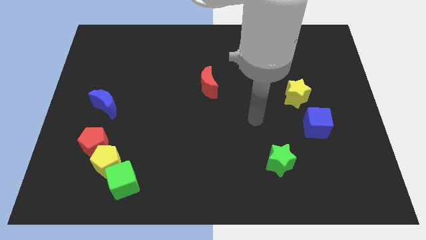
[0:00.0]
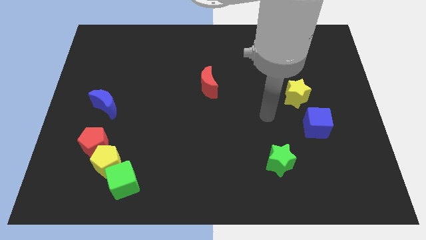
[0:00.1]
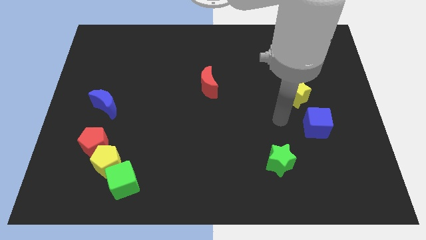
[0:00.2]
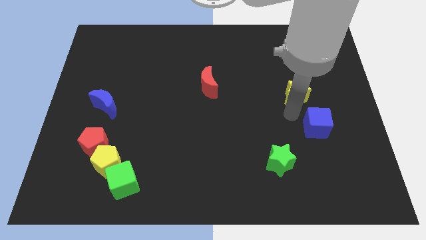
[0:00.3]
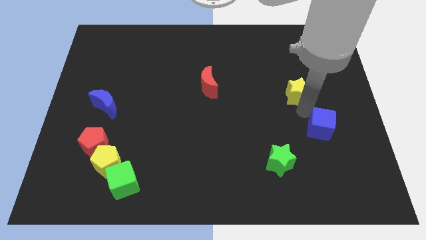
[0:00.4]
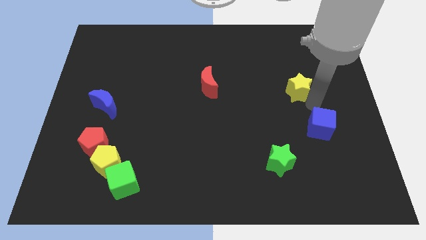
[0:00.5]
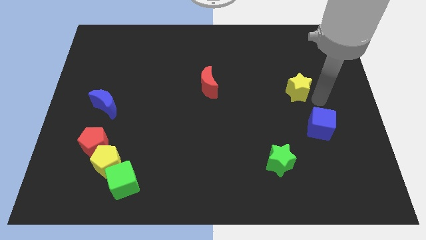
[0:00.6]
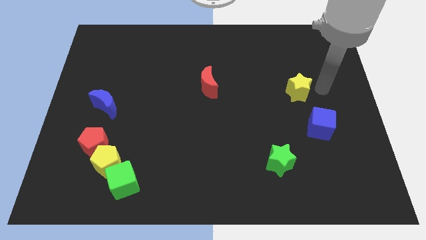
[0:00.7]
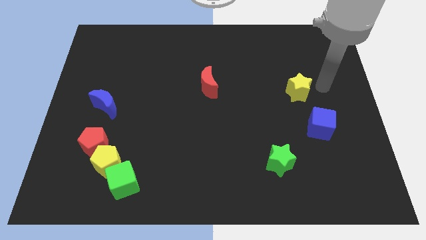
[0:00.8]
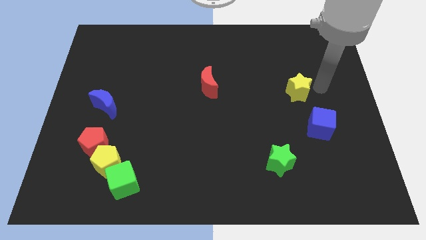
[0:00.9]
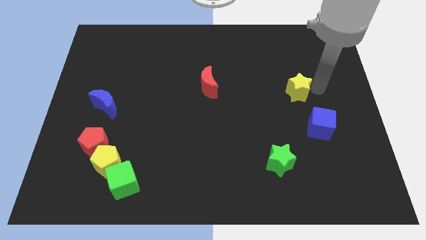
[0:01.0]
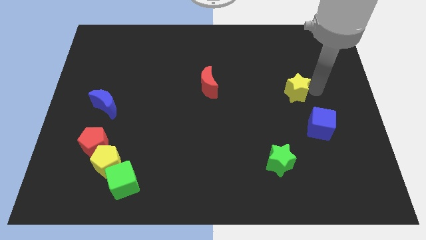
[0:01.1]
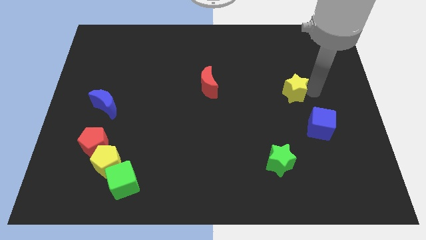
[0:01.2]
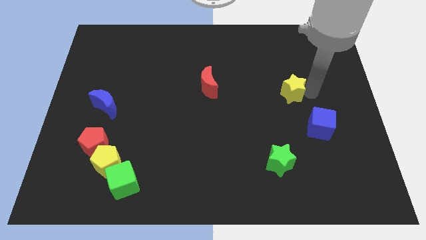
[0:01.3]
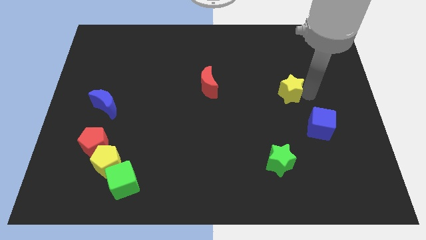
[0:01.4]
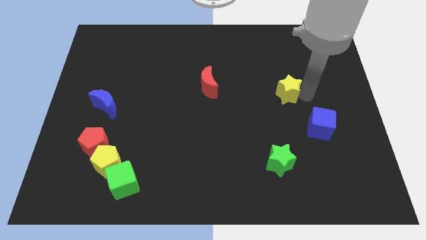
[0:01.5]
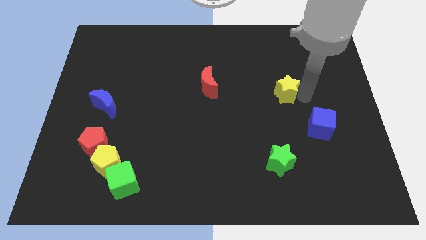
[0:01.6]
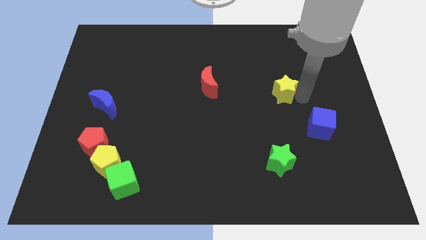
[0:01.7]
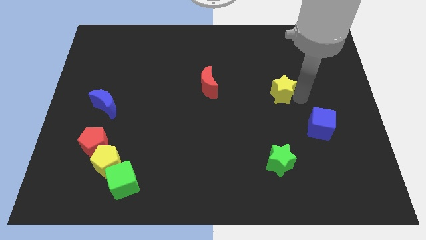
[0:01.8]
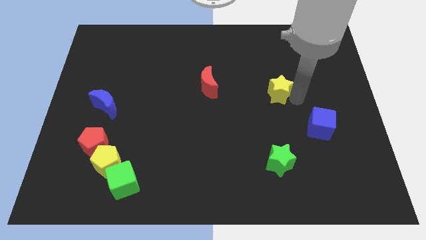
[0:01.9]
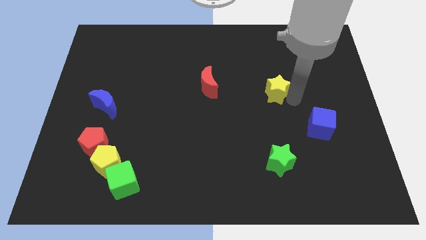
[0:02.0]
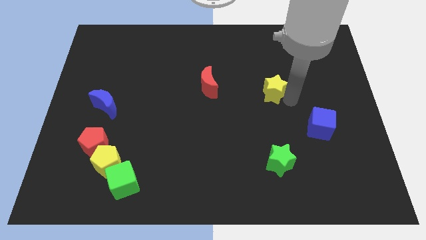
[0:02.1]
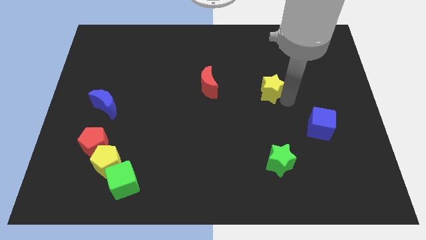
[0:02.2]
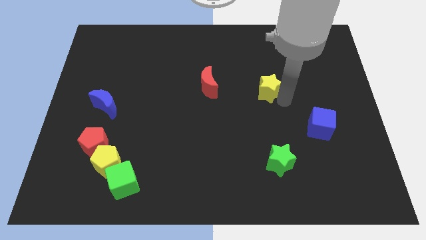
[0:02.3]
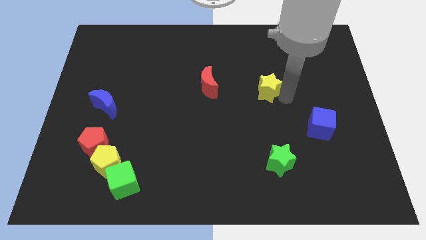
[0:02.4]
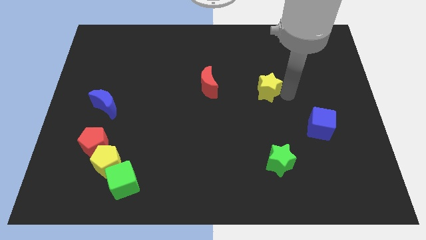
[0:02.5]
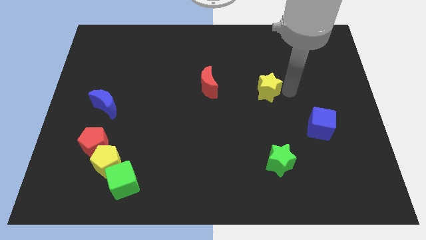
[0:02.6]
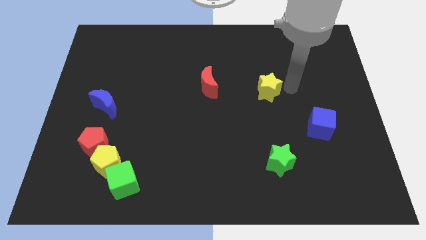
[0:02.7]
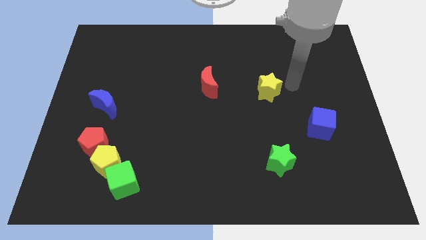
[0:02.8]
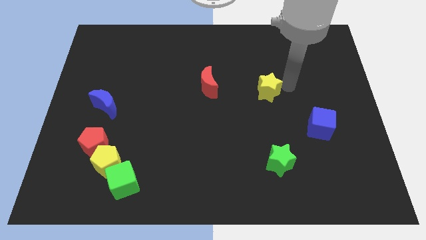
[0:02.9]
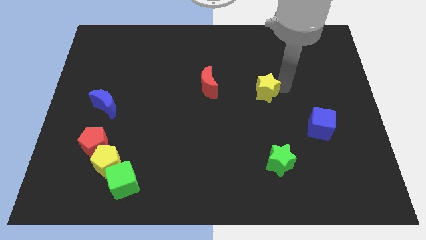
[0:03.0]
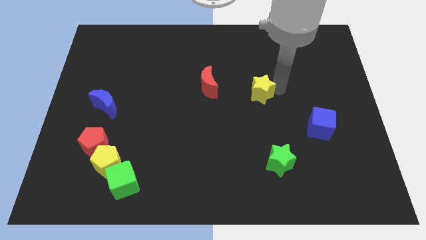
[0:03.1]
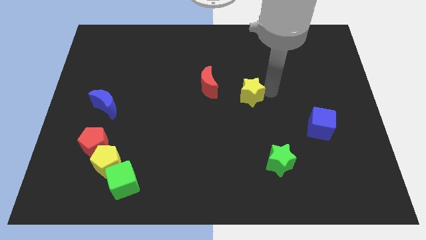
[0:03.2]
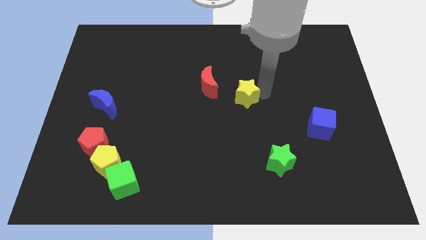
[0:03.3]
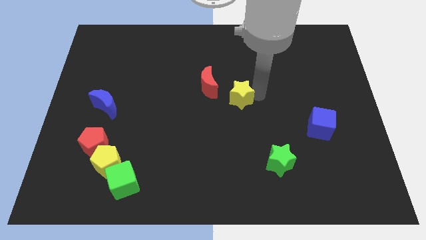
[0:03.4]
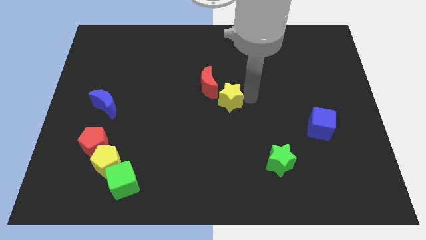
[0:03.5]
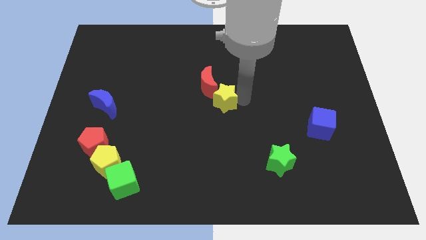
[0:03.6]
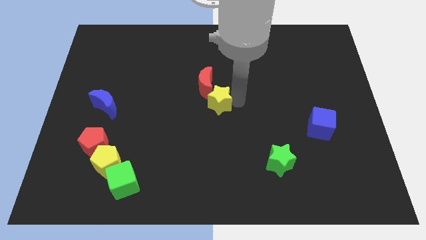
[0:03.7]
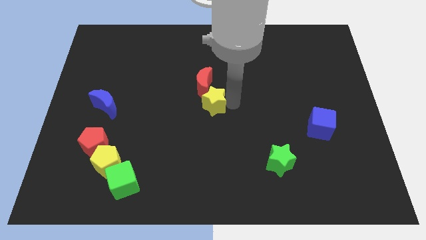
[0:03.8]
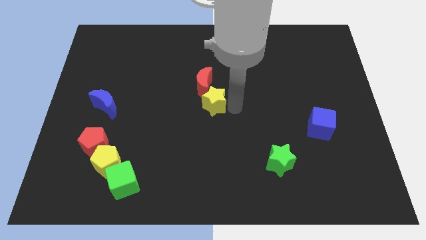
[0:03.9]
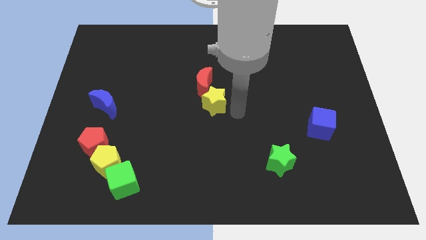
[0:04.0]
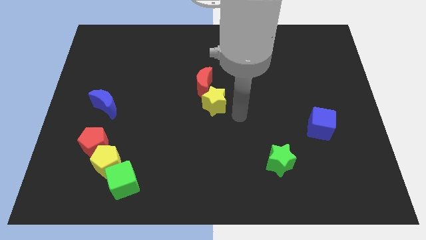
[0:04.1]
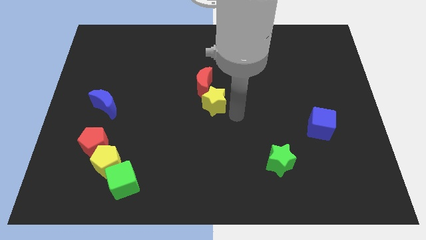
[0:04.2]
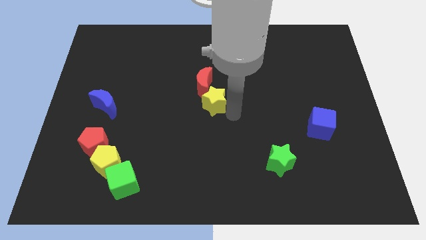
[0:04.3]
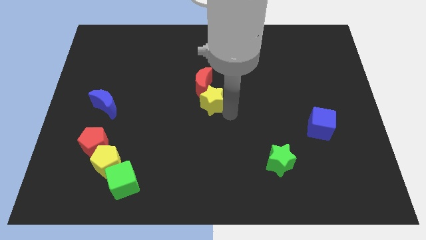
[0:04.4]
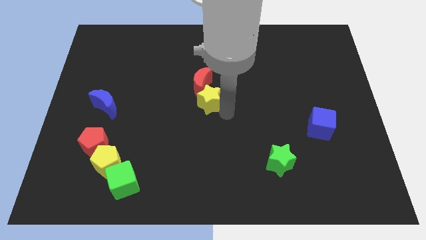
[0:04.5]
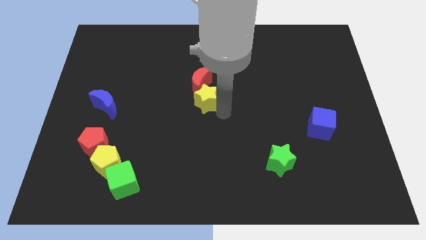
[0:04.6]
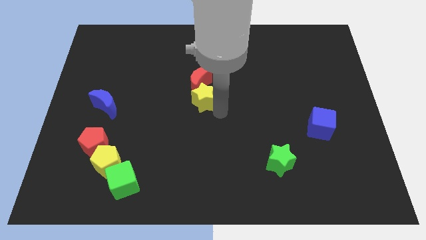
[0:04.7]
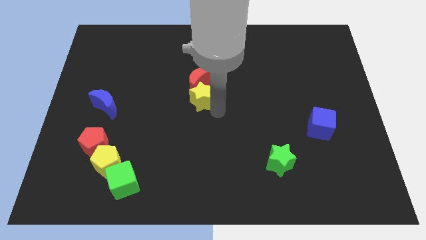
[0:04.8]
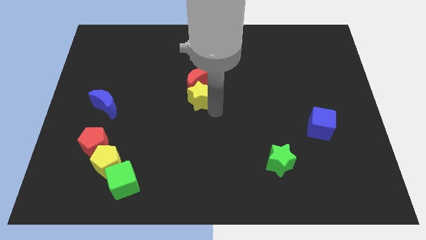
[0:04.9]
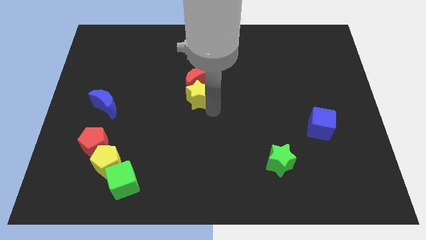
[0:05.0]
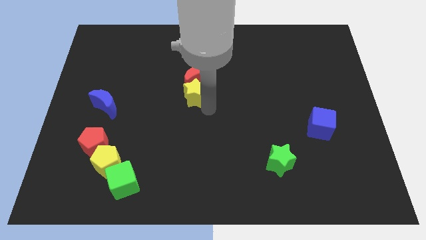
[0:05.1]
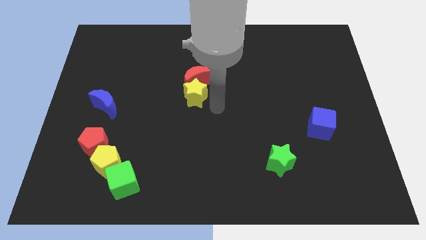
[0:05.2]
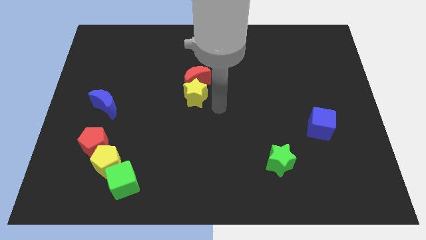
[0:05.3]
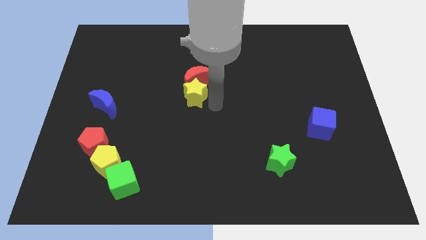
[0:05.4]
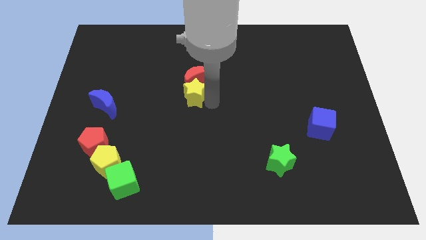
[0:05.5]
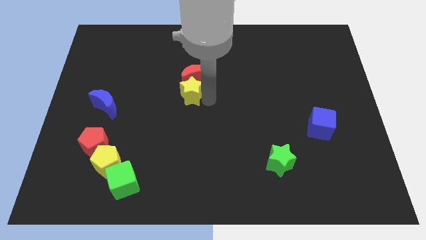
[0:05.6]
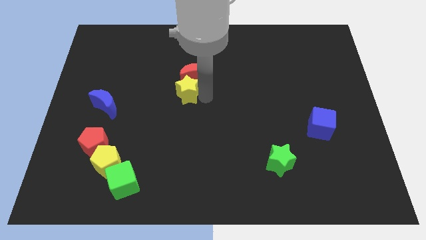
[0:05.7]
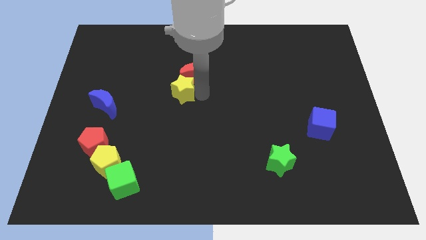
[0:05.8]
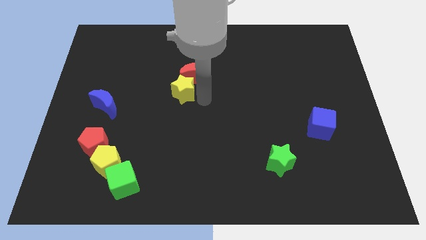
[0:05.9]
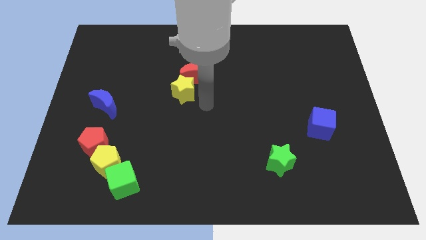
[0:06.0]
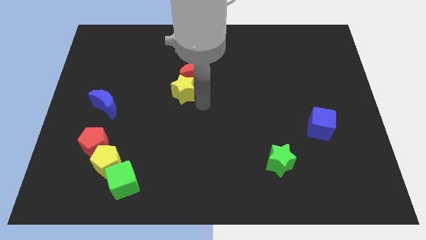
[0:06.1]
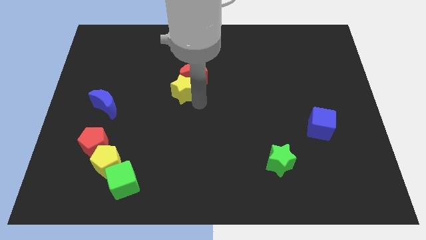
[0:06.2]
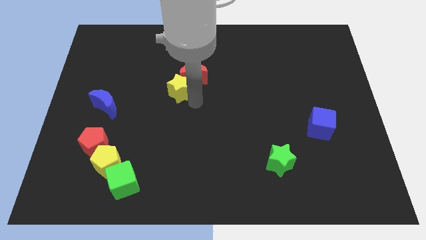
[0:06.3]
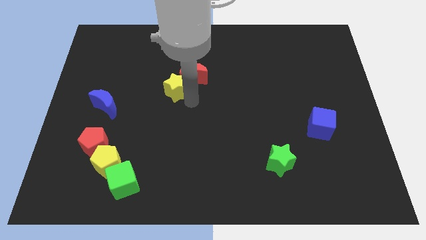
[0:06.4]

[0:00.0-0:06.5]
slide the yellow star just left of the red moon
